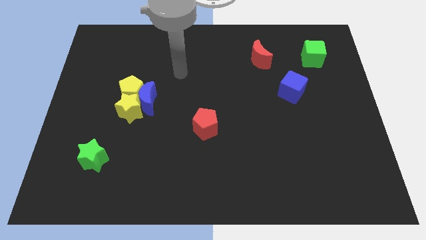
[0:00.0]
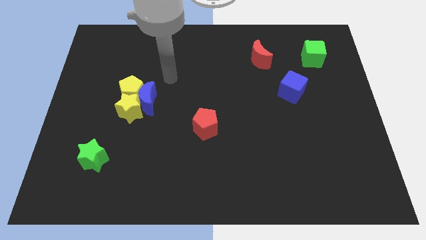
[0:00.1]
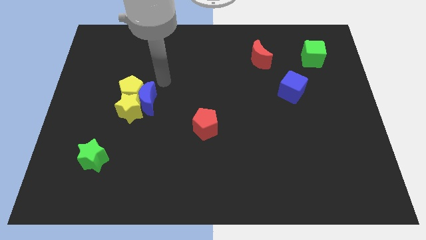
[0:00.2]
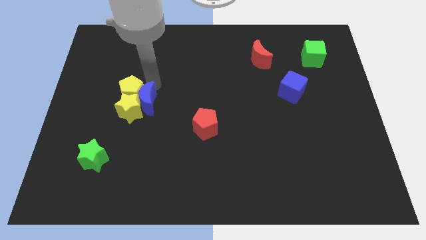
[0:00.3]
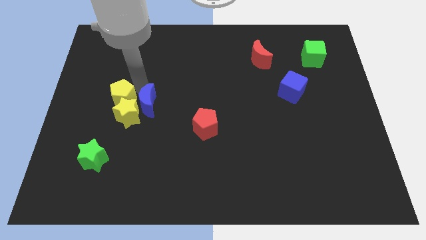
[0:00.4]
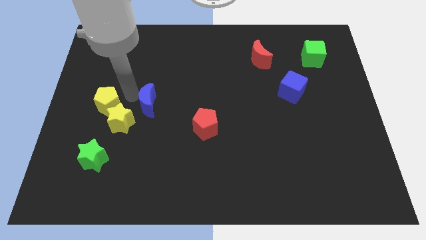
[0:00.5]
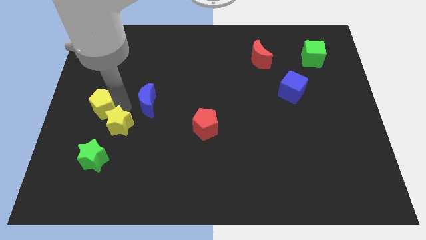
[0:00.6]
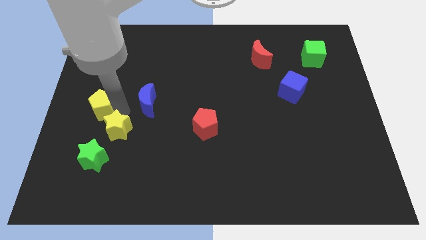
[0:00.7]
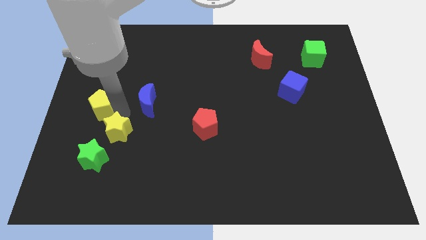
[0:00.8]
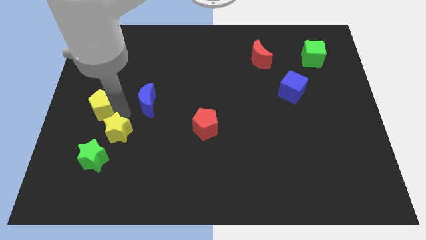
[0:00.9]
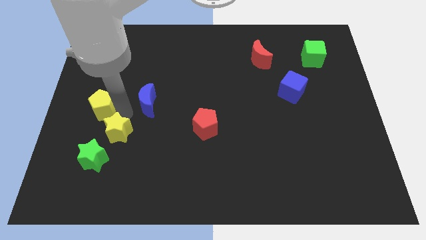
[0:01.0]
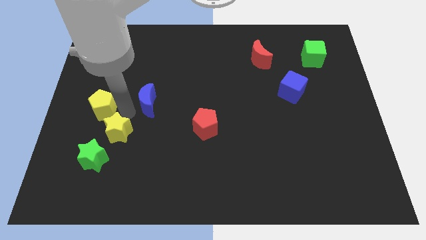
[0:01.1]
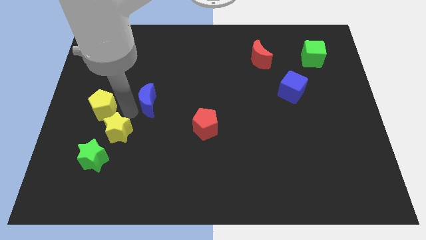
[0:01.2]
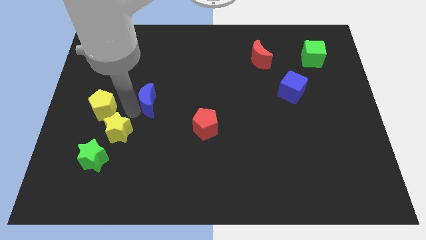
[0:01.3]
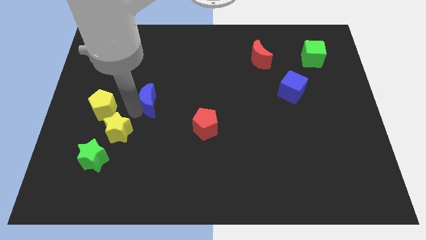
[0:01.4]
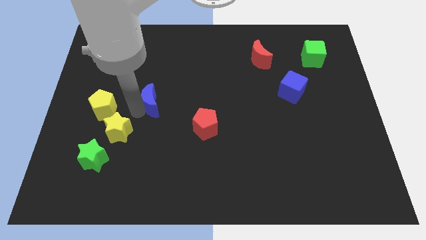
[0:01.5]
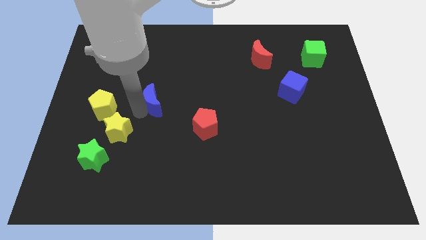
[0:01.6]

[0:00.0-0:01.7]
separate the blue moon from the yellow pentagon and yellow star

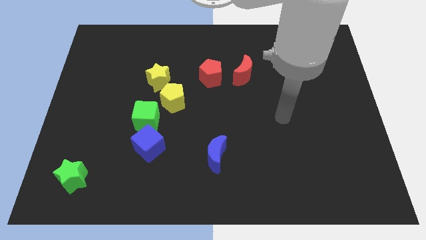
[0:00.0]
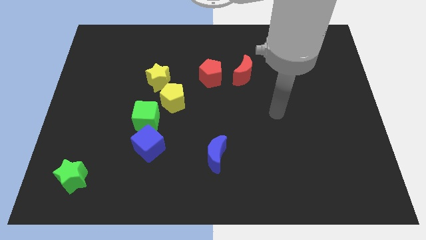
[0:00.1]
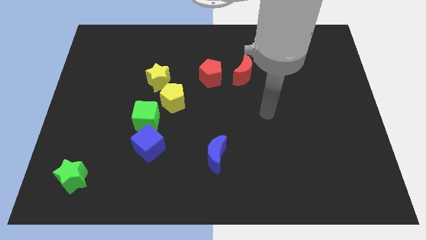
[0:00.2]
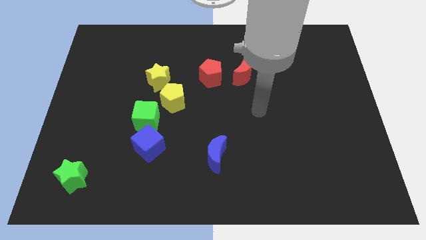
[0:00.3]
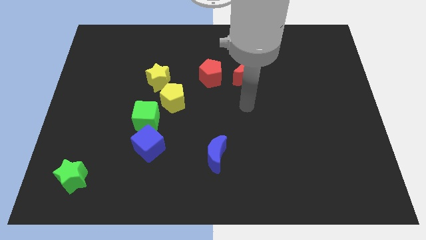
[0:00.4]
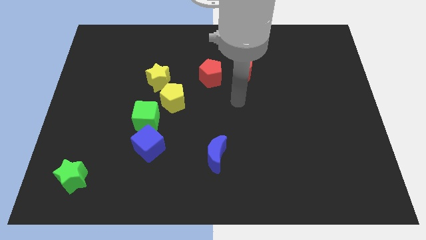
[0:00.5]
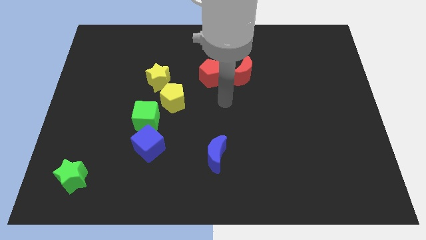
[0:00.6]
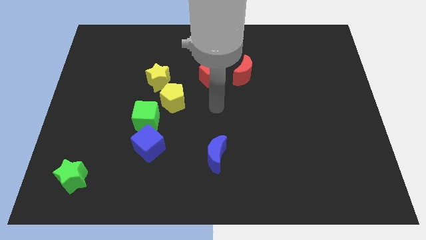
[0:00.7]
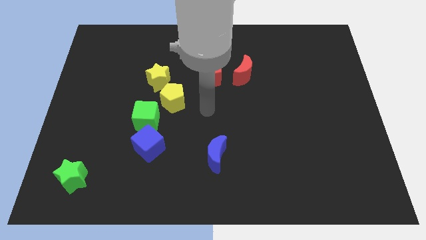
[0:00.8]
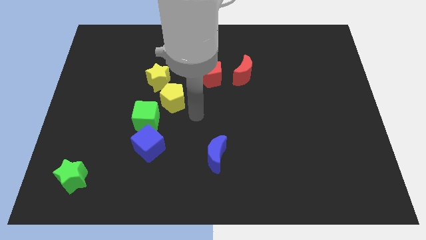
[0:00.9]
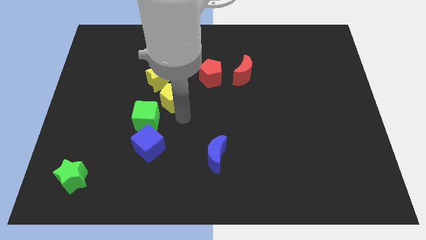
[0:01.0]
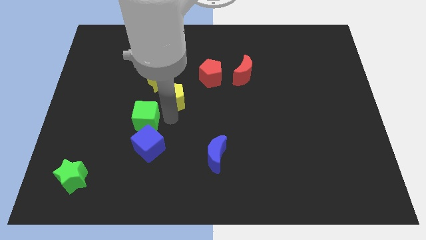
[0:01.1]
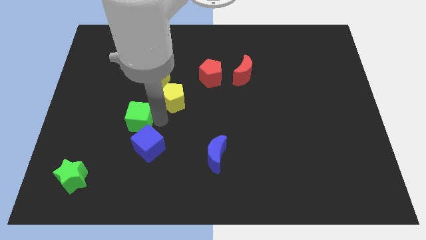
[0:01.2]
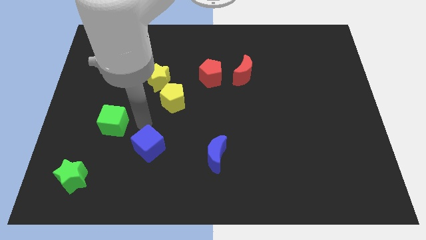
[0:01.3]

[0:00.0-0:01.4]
pull the blue cube apart from the green cube

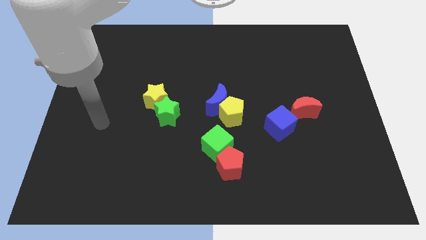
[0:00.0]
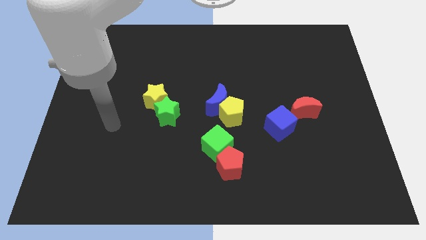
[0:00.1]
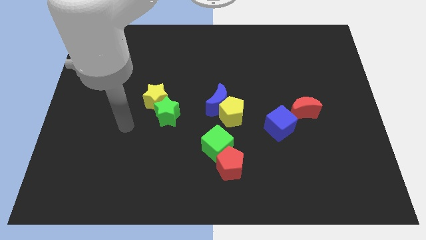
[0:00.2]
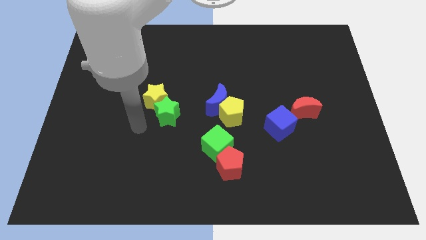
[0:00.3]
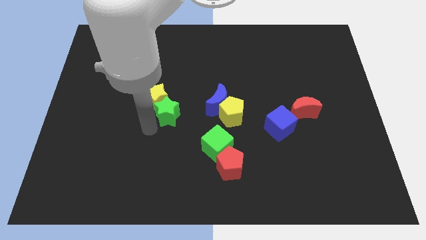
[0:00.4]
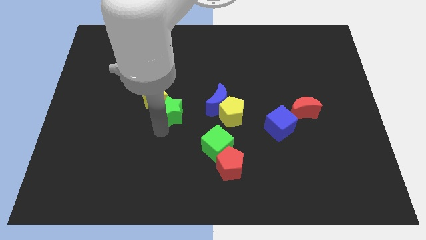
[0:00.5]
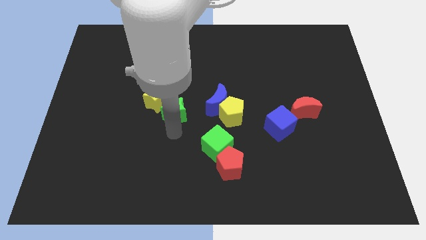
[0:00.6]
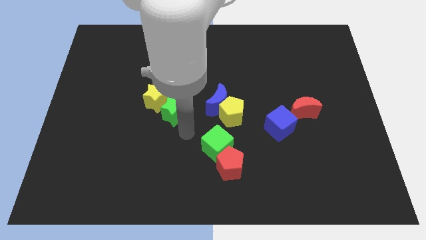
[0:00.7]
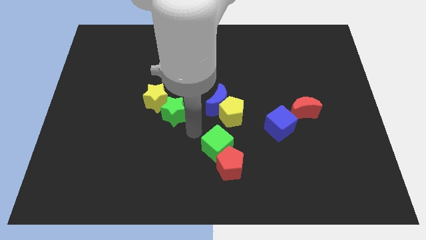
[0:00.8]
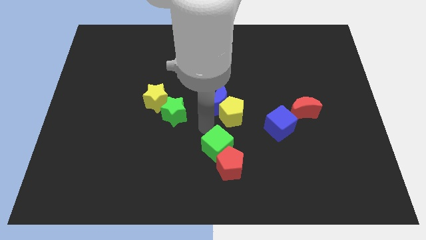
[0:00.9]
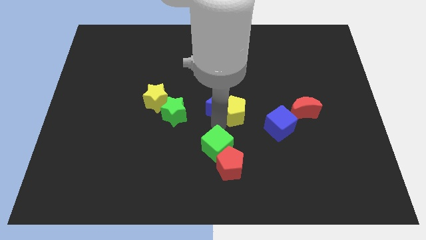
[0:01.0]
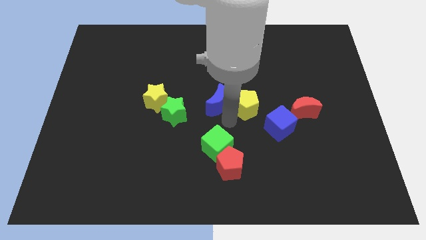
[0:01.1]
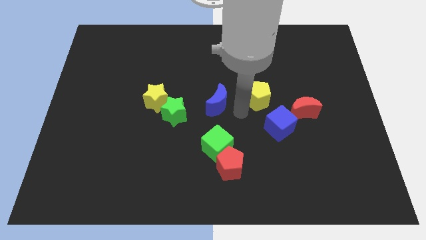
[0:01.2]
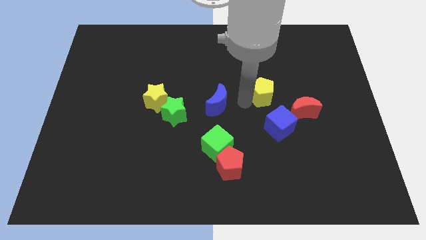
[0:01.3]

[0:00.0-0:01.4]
pull the blue moon apart from the yellow pentagon

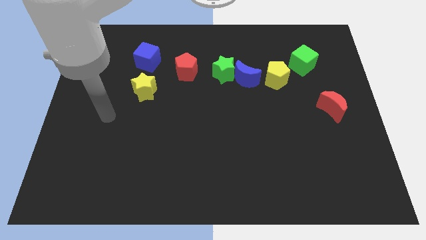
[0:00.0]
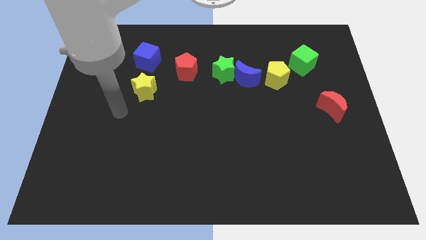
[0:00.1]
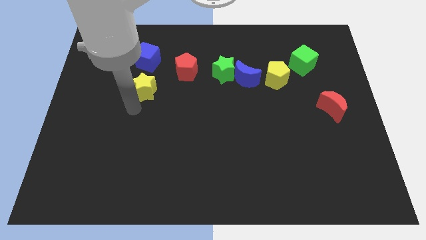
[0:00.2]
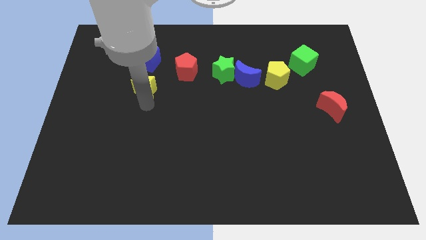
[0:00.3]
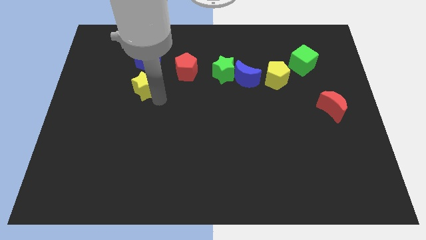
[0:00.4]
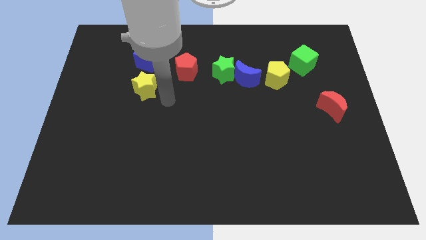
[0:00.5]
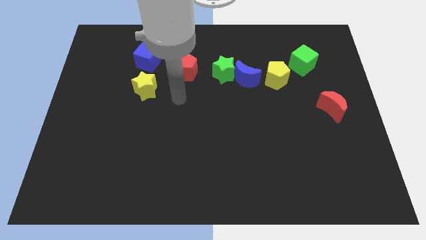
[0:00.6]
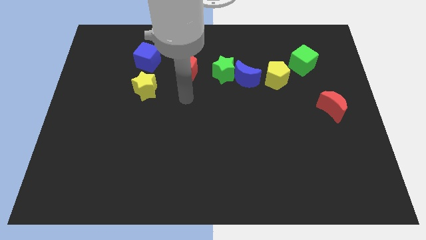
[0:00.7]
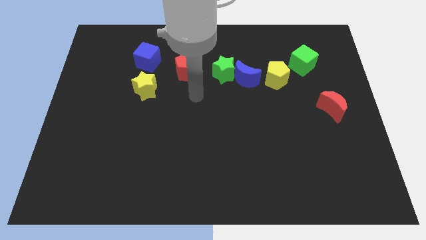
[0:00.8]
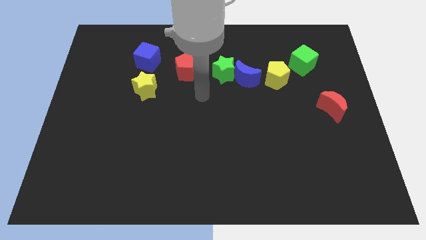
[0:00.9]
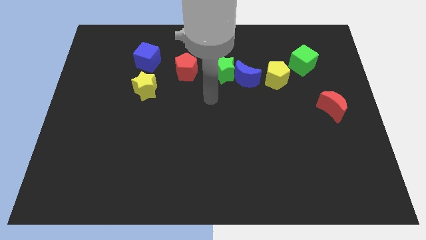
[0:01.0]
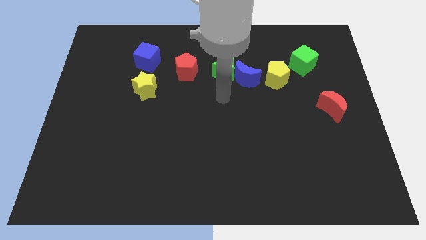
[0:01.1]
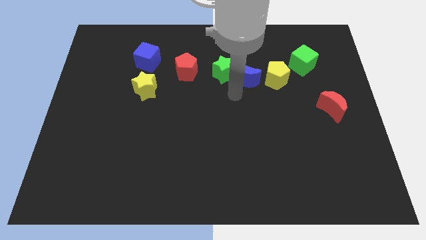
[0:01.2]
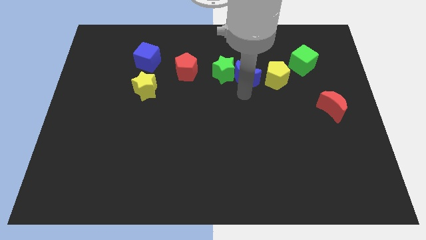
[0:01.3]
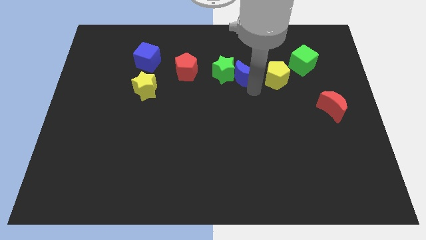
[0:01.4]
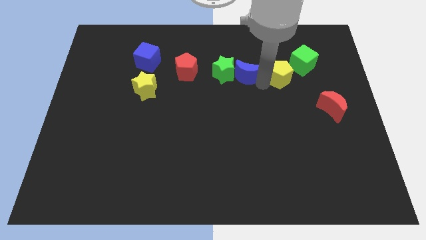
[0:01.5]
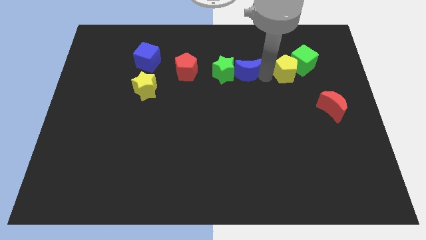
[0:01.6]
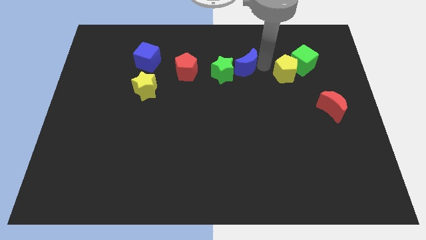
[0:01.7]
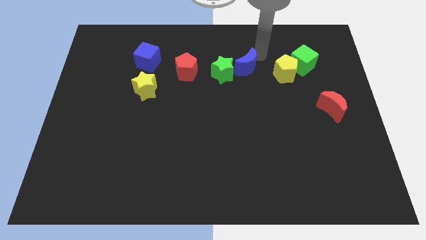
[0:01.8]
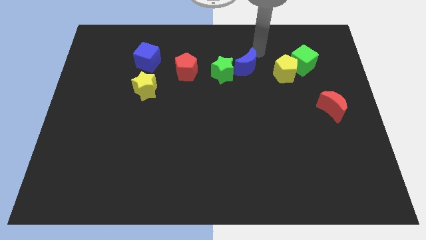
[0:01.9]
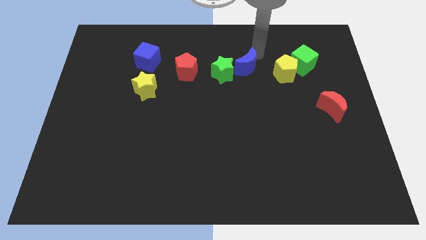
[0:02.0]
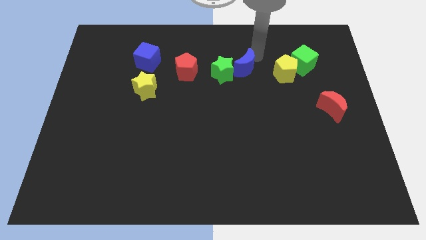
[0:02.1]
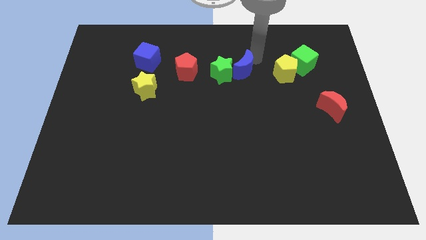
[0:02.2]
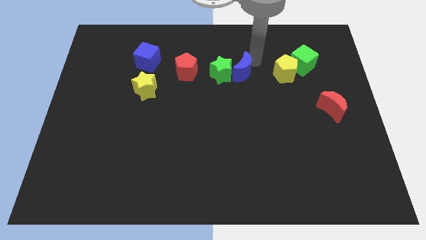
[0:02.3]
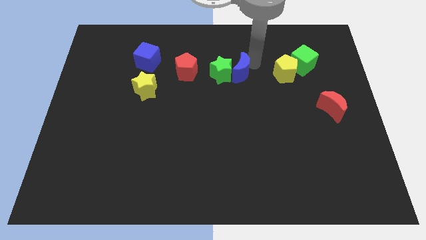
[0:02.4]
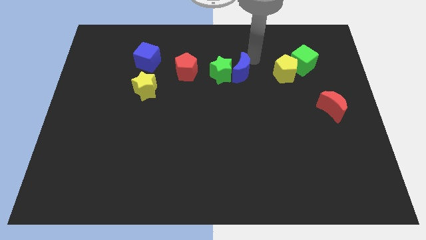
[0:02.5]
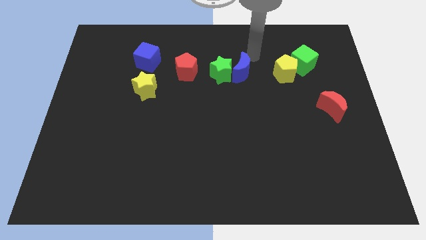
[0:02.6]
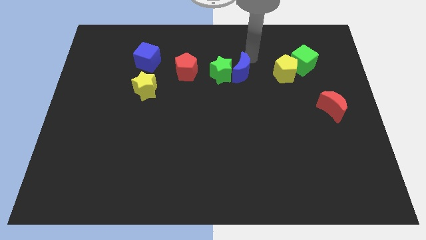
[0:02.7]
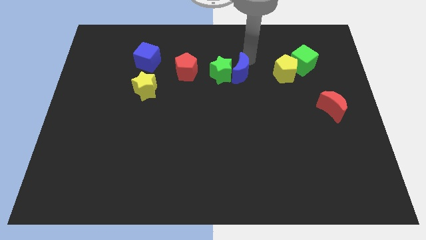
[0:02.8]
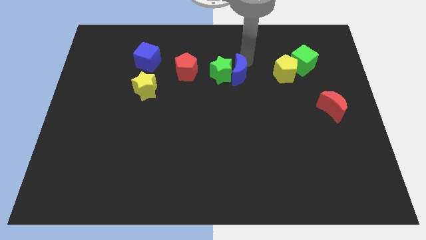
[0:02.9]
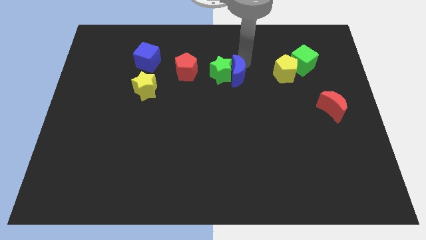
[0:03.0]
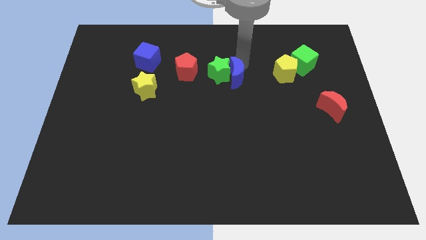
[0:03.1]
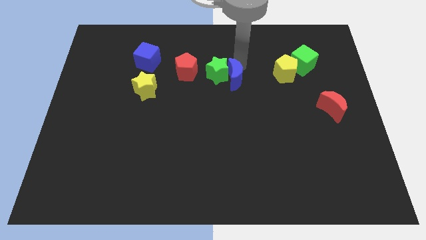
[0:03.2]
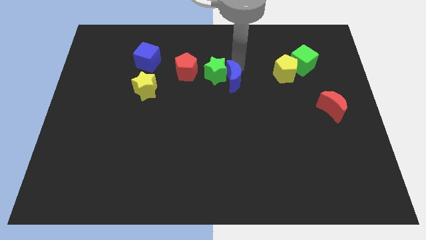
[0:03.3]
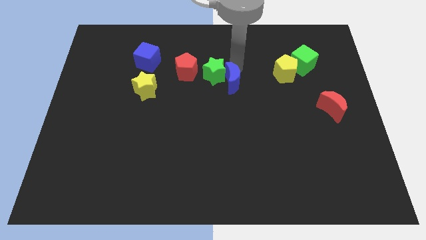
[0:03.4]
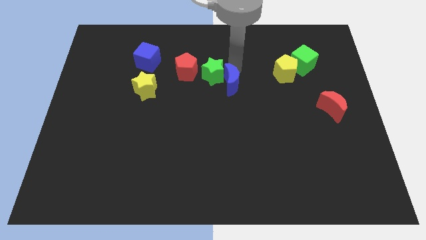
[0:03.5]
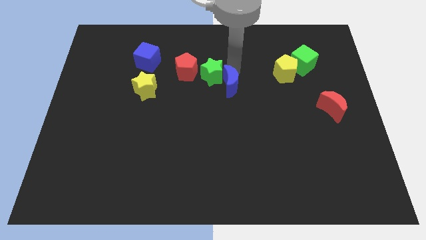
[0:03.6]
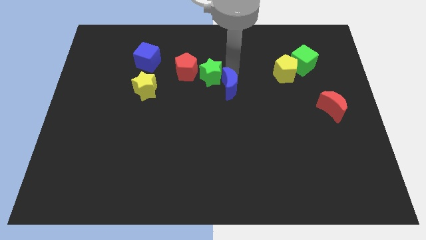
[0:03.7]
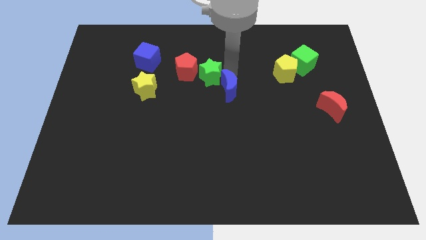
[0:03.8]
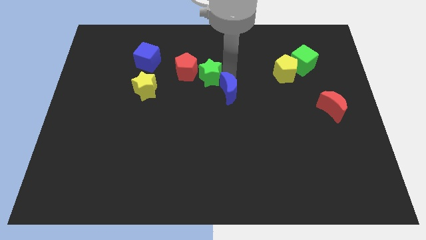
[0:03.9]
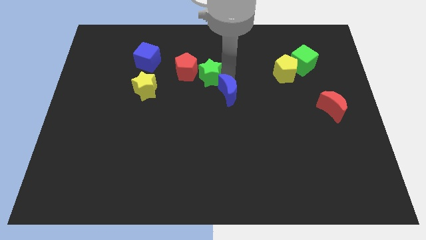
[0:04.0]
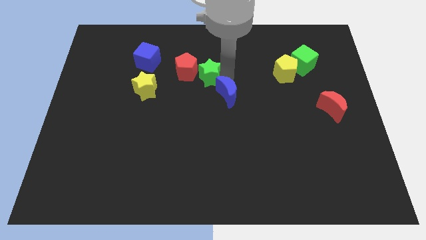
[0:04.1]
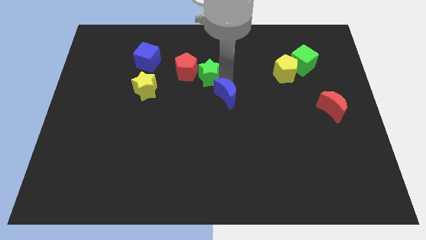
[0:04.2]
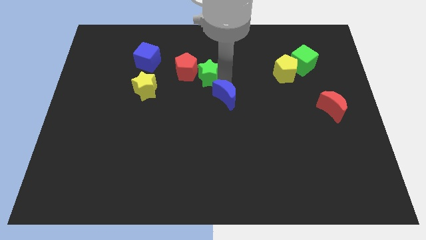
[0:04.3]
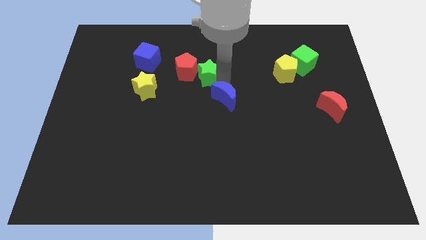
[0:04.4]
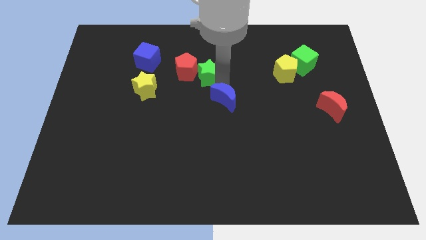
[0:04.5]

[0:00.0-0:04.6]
move the blue moon away from the green star and yellow pentagon

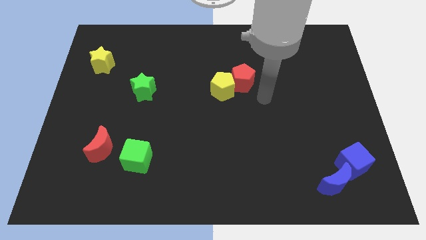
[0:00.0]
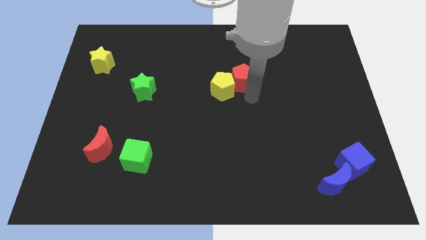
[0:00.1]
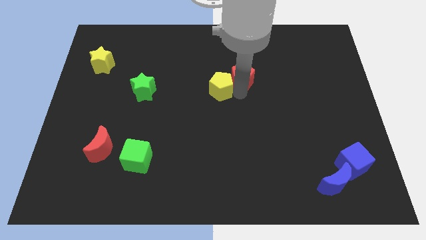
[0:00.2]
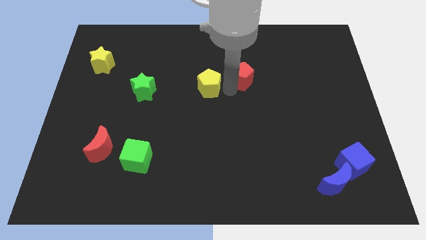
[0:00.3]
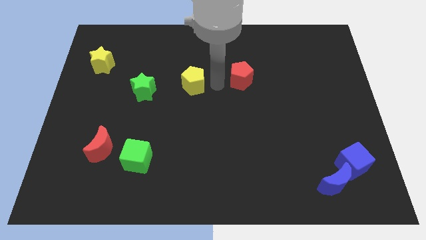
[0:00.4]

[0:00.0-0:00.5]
move the red pentagon away from the yellow pentagon
